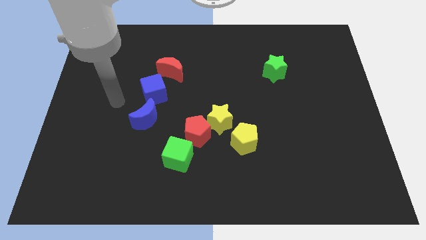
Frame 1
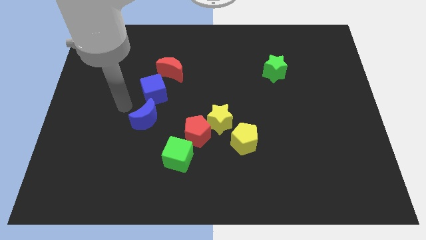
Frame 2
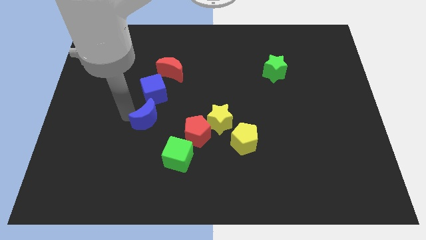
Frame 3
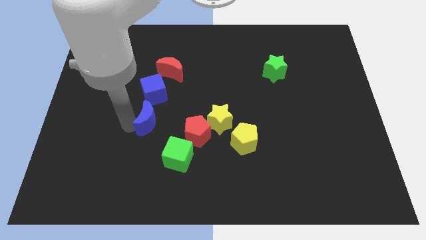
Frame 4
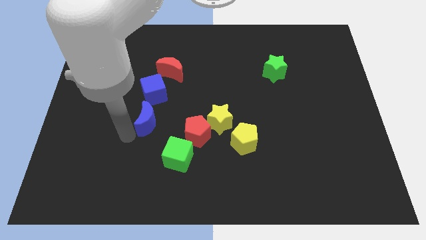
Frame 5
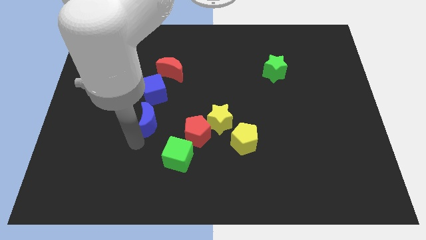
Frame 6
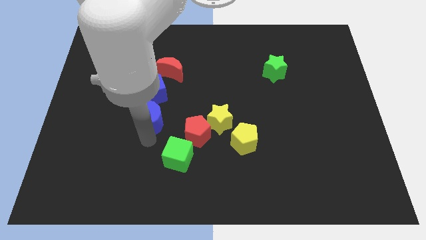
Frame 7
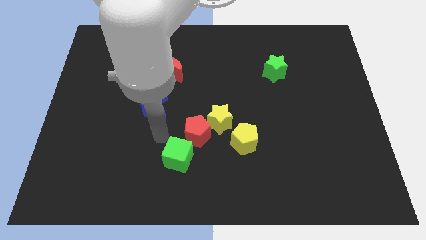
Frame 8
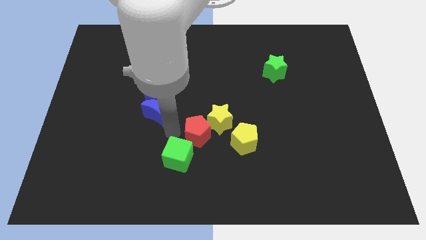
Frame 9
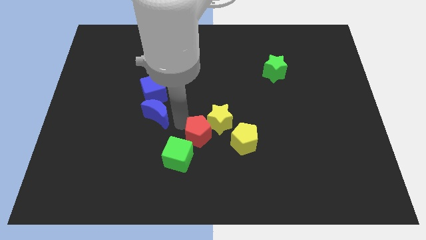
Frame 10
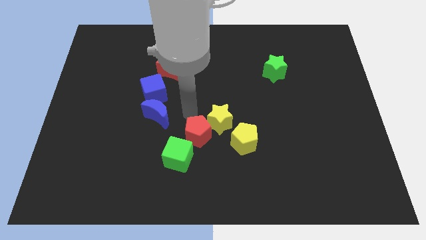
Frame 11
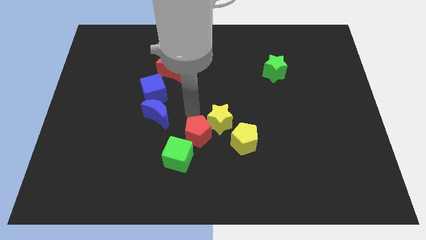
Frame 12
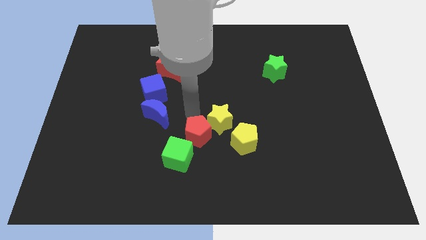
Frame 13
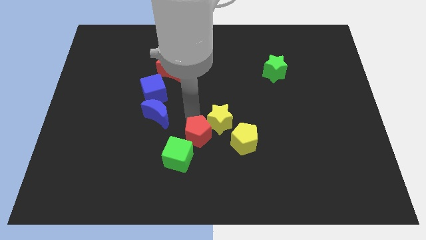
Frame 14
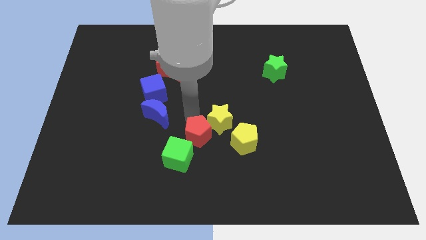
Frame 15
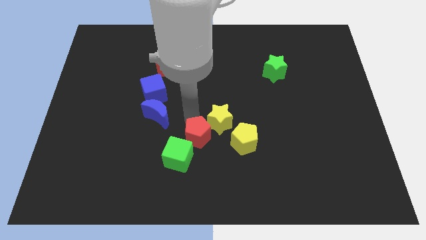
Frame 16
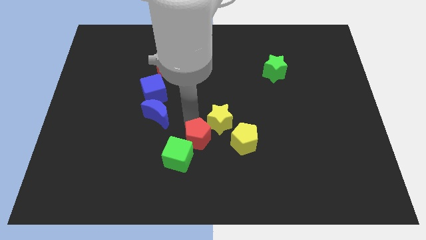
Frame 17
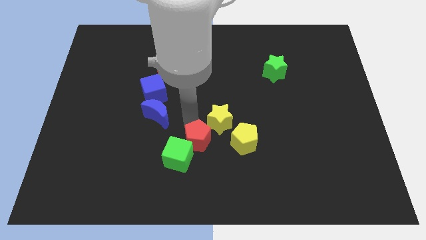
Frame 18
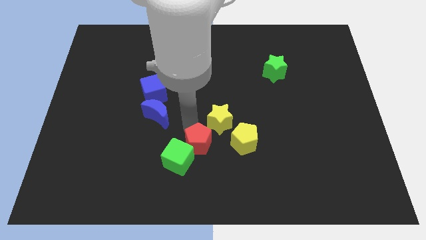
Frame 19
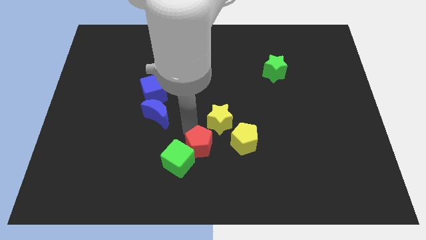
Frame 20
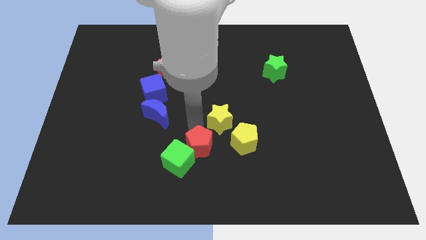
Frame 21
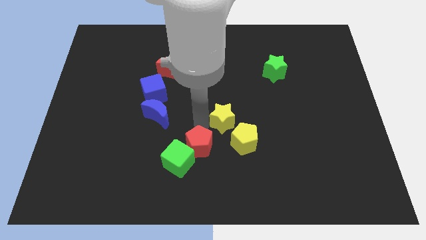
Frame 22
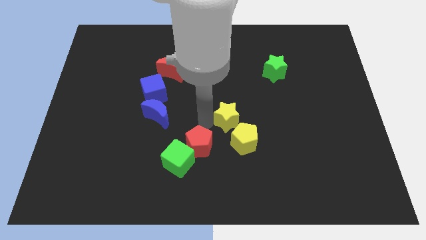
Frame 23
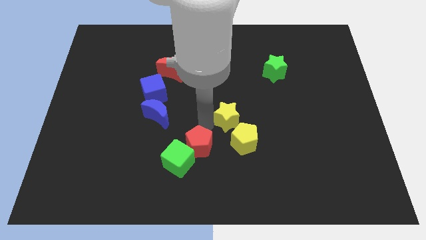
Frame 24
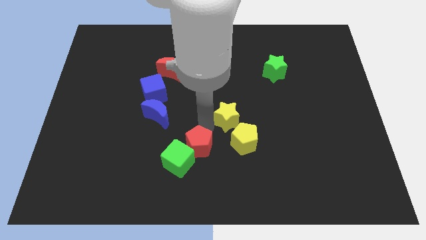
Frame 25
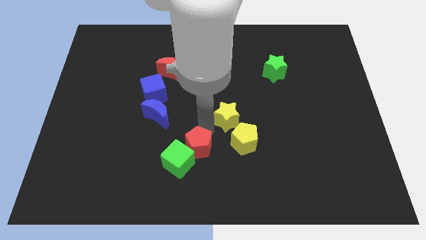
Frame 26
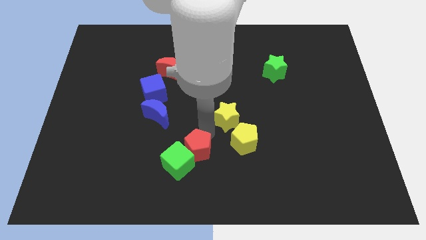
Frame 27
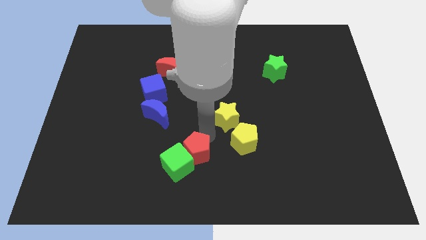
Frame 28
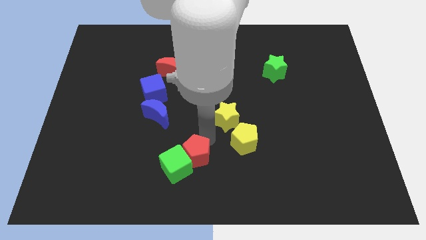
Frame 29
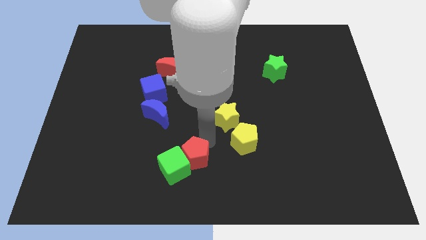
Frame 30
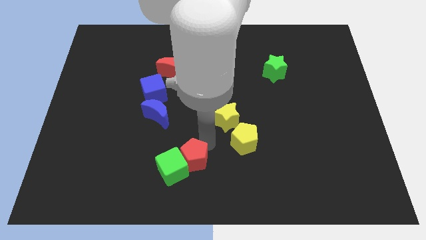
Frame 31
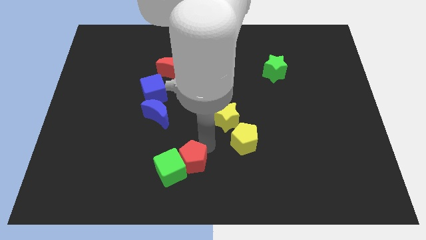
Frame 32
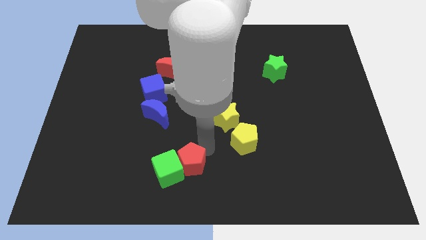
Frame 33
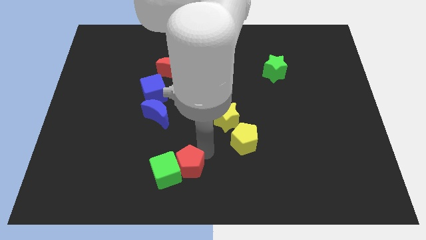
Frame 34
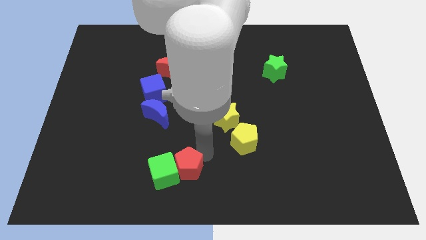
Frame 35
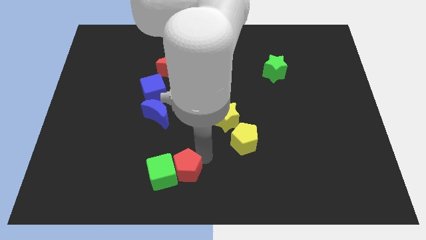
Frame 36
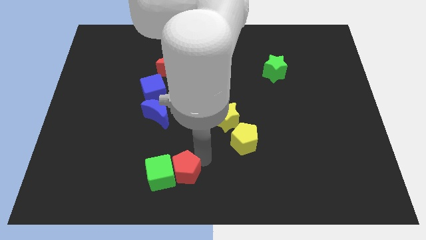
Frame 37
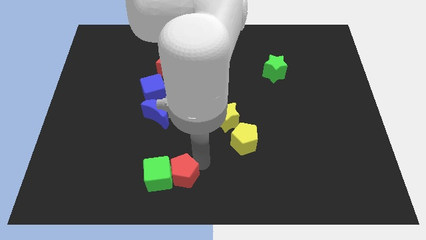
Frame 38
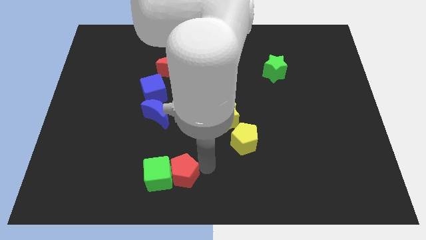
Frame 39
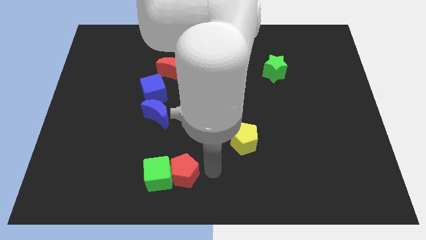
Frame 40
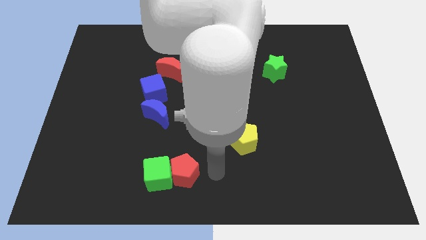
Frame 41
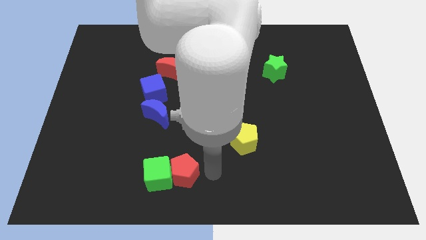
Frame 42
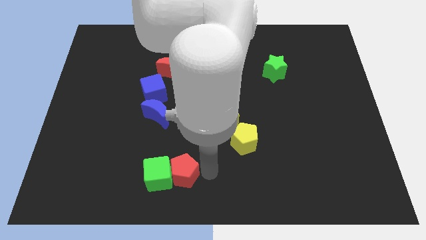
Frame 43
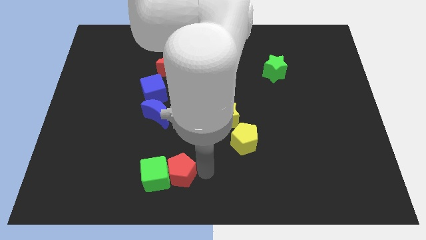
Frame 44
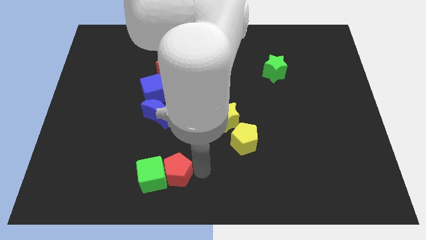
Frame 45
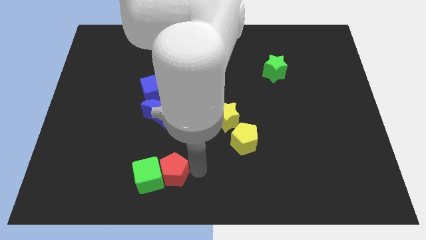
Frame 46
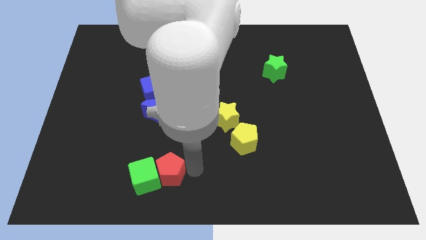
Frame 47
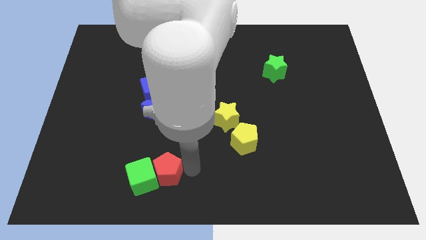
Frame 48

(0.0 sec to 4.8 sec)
push the red pentagon to the bottom of the blue moon

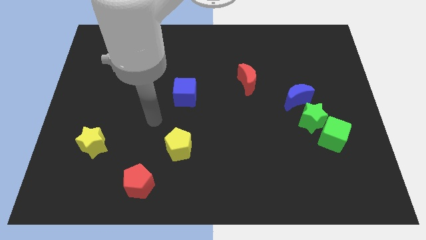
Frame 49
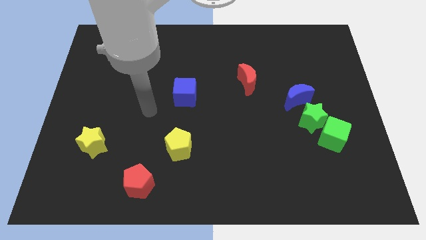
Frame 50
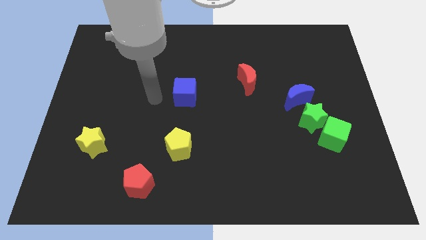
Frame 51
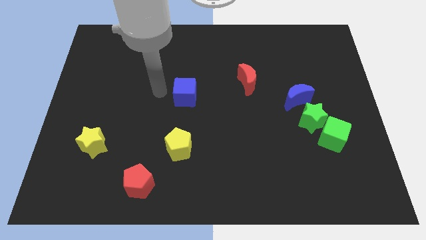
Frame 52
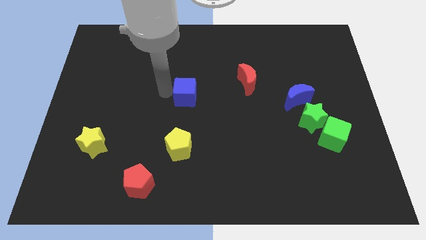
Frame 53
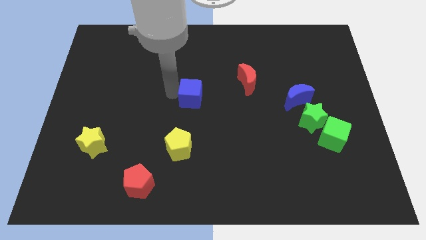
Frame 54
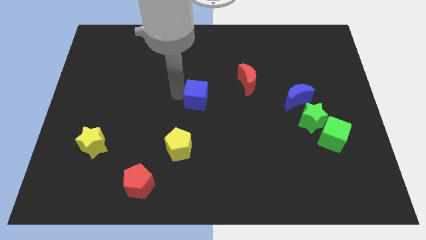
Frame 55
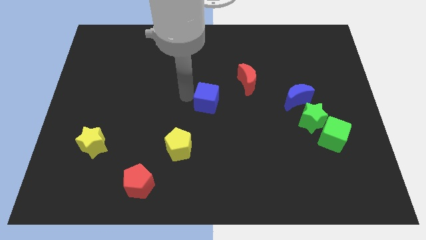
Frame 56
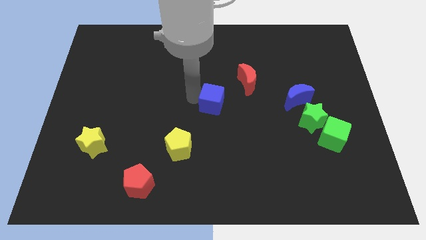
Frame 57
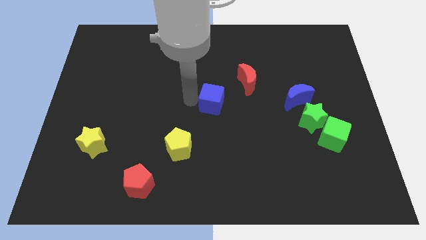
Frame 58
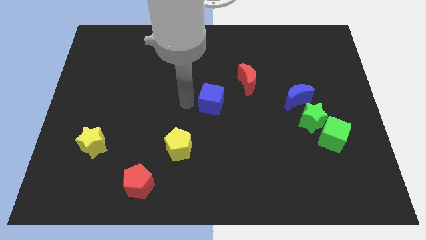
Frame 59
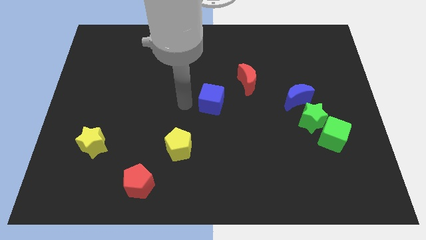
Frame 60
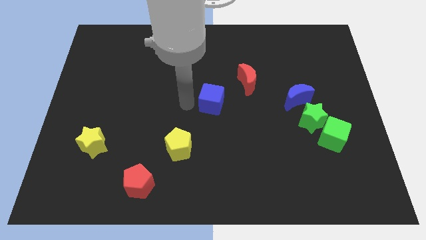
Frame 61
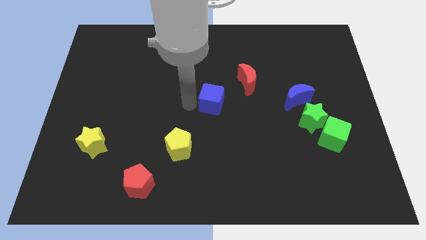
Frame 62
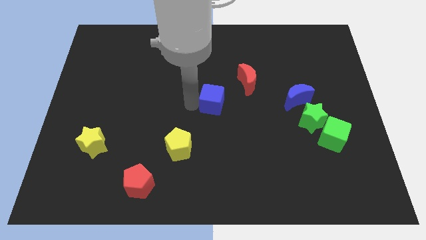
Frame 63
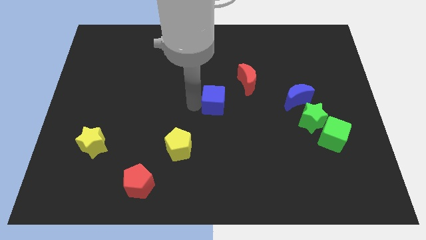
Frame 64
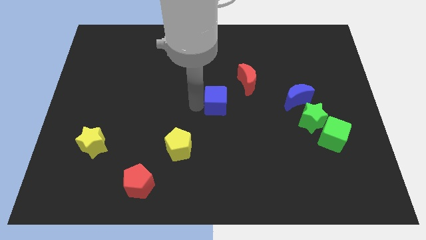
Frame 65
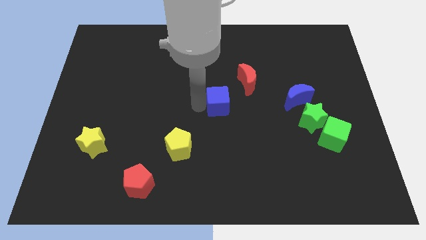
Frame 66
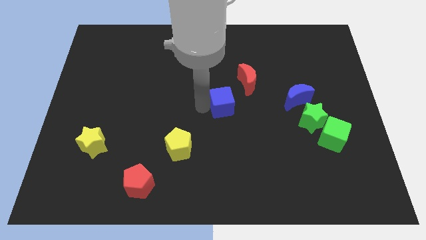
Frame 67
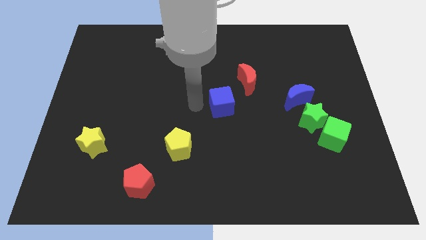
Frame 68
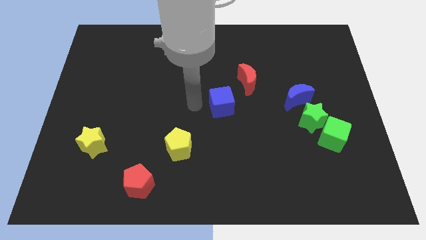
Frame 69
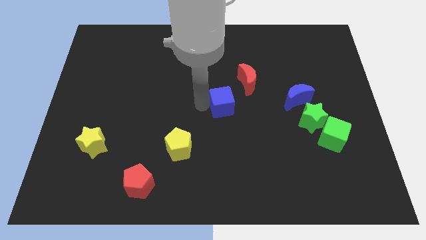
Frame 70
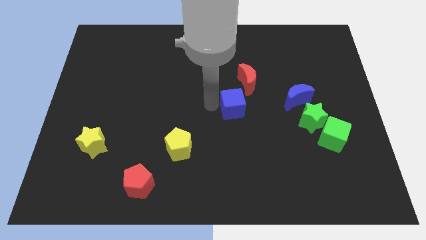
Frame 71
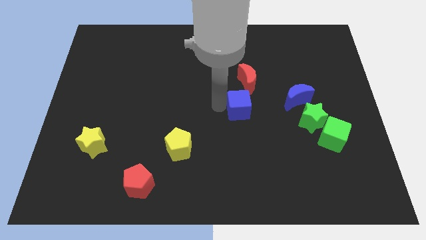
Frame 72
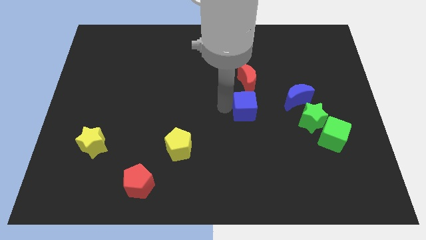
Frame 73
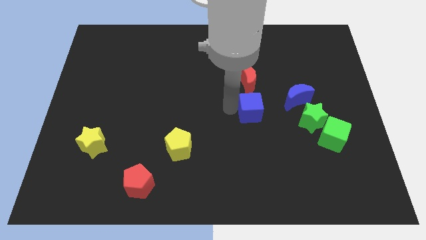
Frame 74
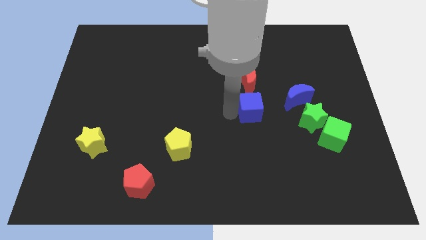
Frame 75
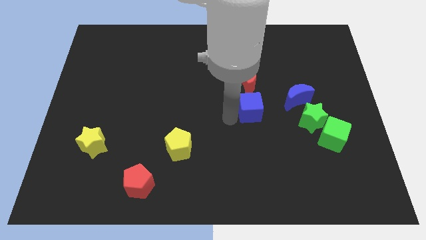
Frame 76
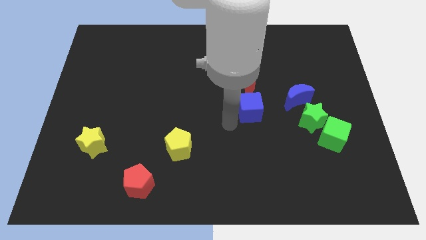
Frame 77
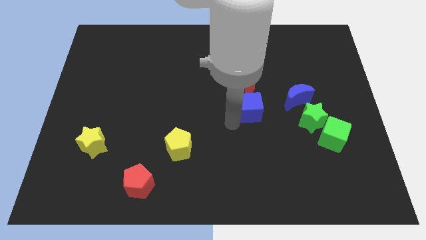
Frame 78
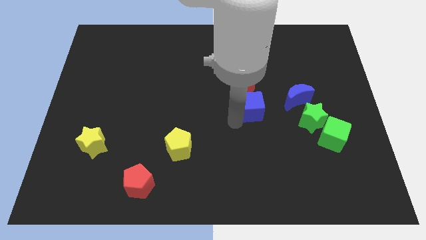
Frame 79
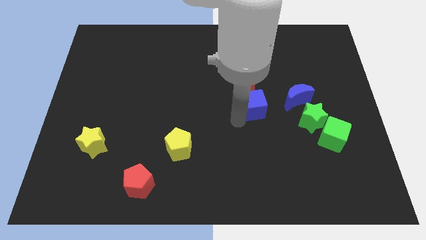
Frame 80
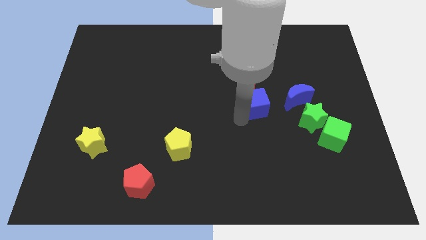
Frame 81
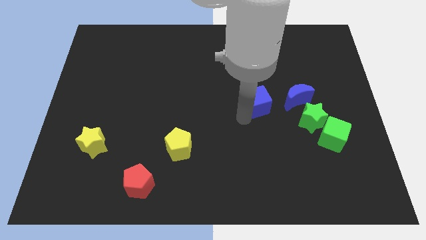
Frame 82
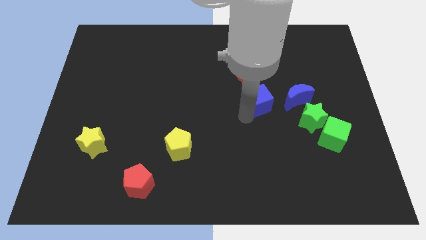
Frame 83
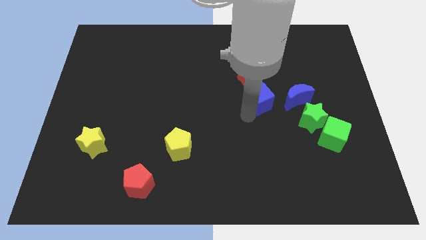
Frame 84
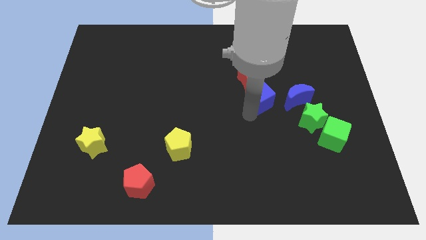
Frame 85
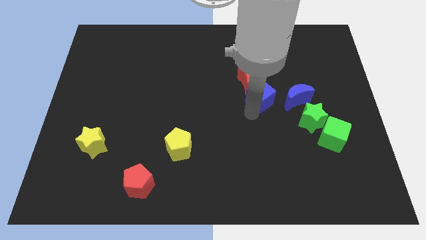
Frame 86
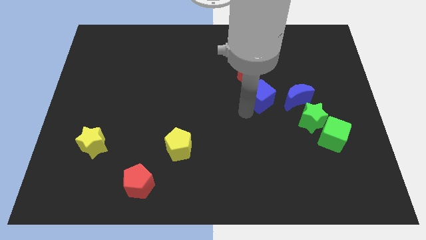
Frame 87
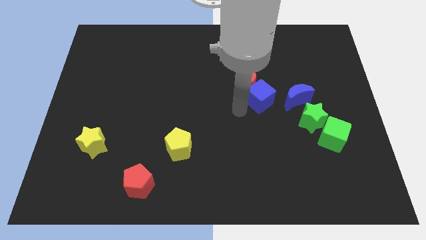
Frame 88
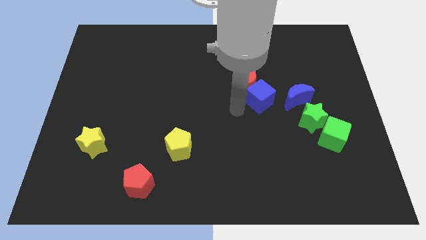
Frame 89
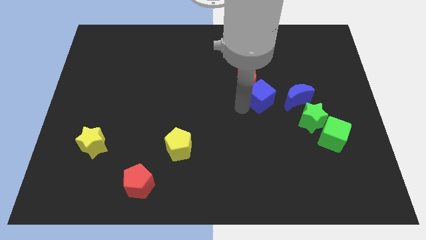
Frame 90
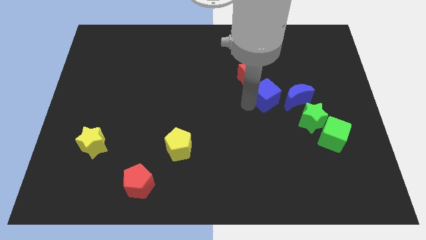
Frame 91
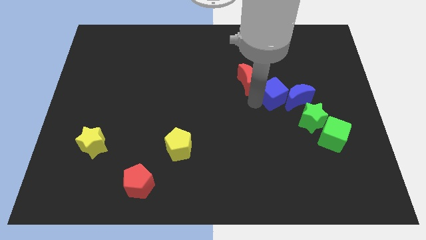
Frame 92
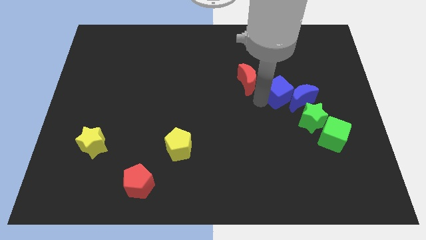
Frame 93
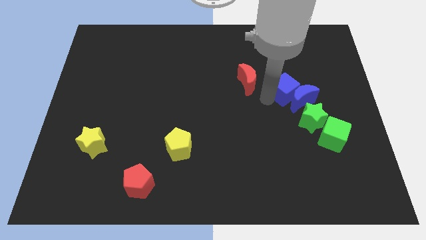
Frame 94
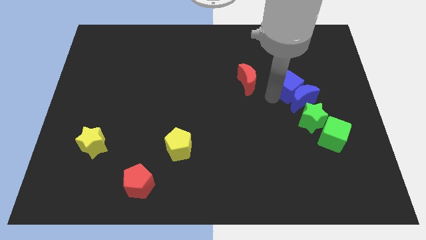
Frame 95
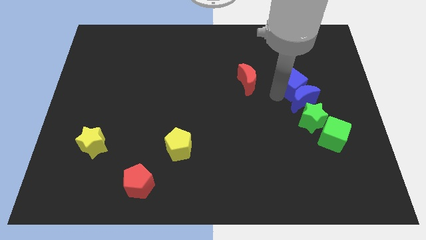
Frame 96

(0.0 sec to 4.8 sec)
put the blue cube diagonally up and to the right of the blue moon
